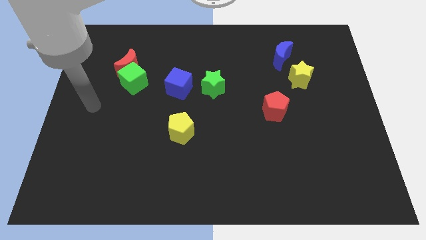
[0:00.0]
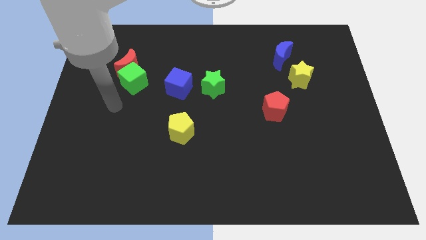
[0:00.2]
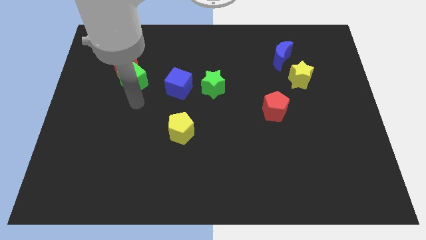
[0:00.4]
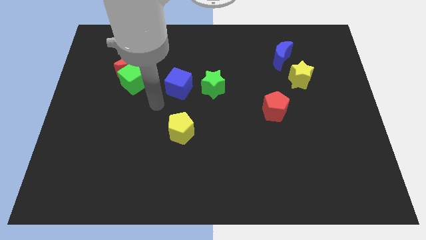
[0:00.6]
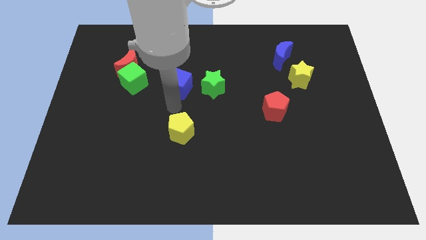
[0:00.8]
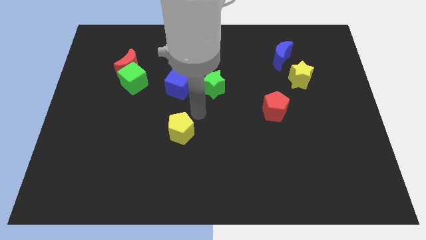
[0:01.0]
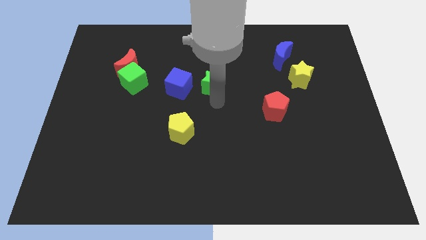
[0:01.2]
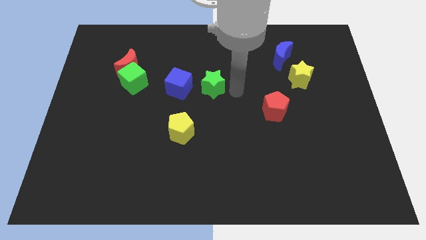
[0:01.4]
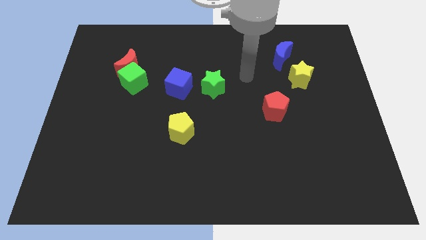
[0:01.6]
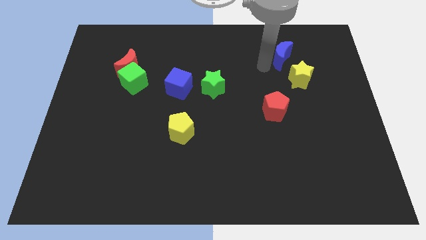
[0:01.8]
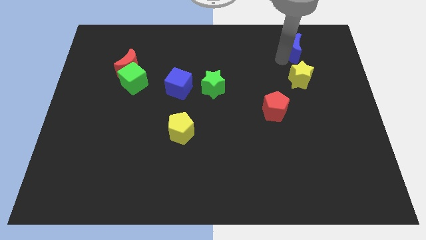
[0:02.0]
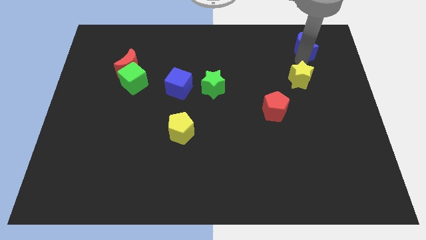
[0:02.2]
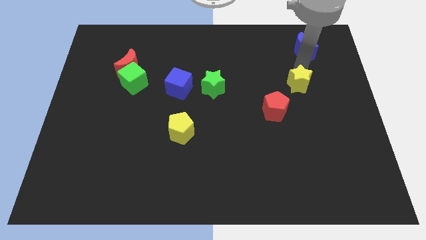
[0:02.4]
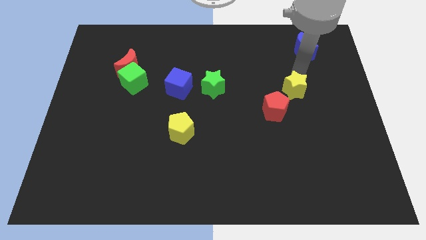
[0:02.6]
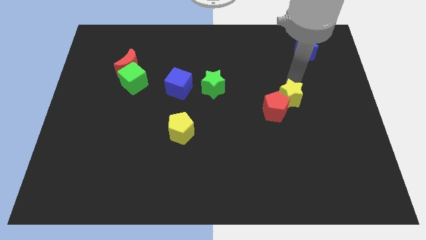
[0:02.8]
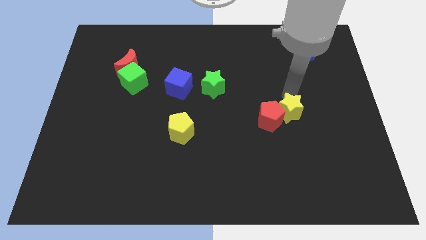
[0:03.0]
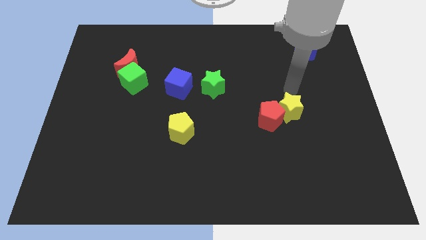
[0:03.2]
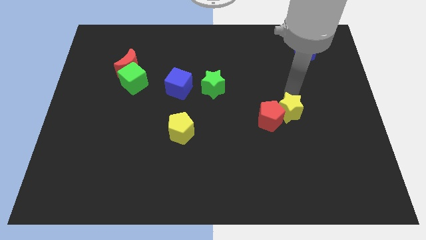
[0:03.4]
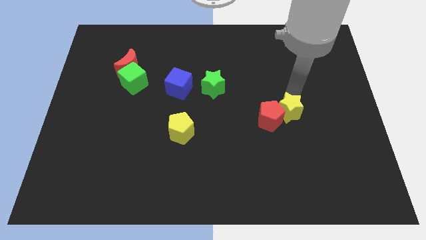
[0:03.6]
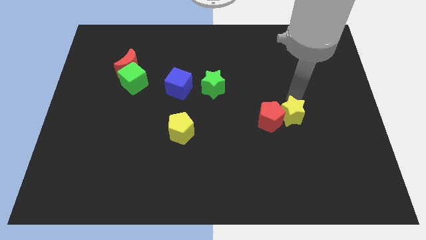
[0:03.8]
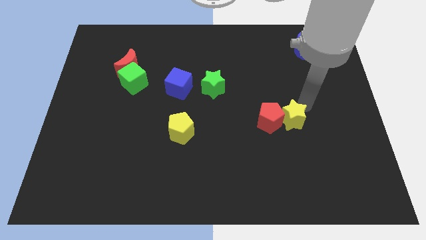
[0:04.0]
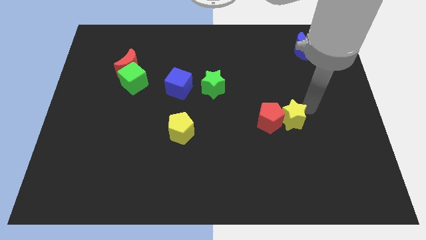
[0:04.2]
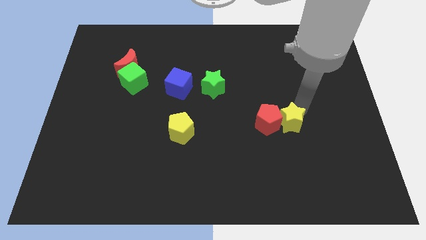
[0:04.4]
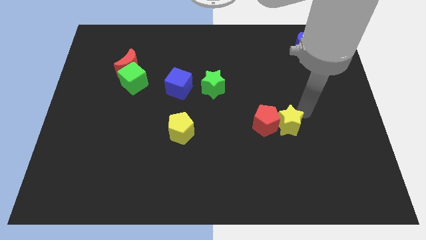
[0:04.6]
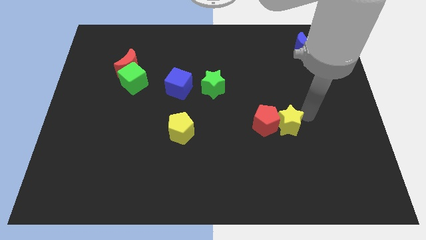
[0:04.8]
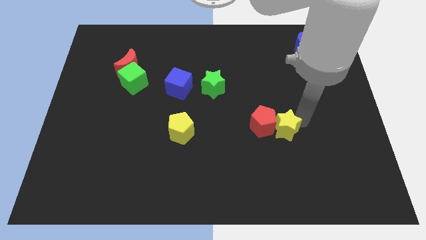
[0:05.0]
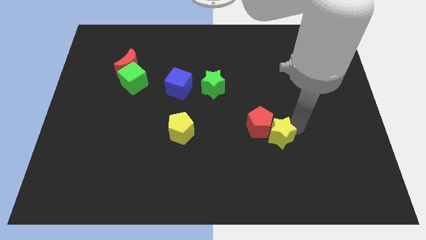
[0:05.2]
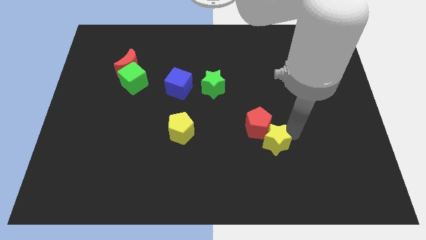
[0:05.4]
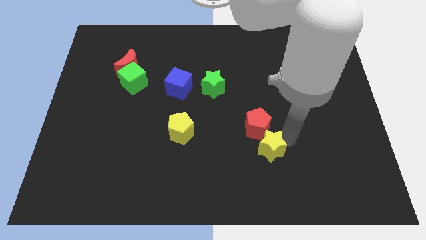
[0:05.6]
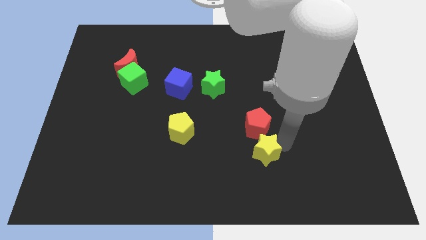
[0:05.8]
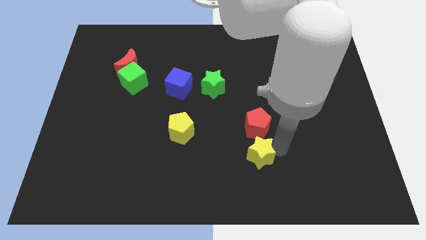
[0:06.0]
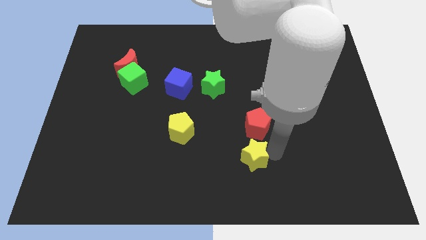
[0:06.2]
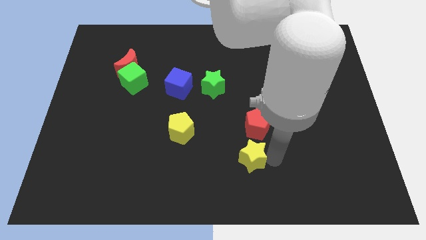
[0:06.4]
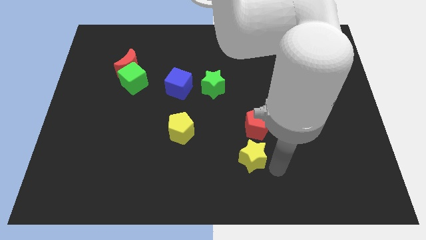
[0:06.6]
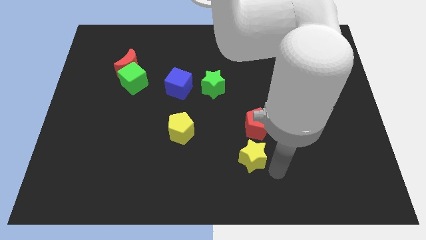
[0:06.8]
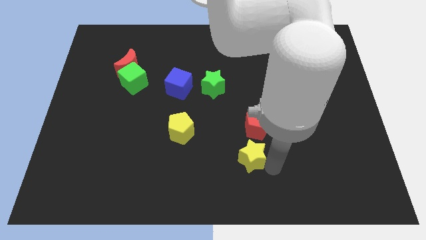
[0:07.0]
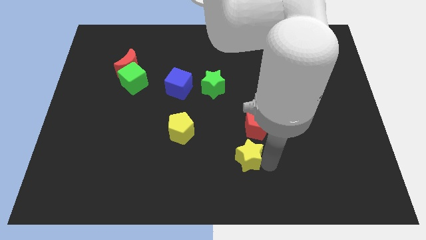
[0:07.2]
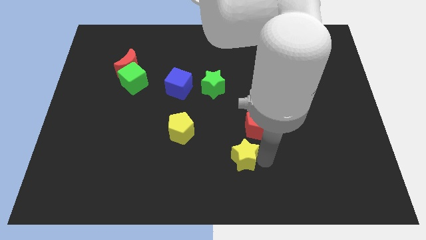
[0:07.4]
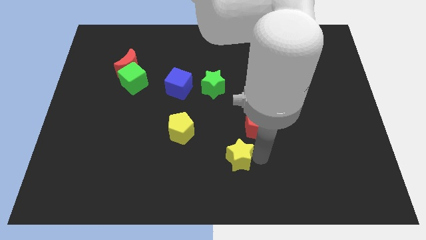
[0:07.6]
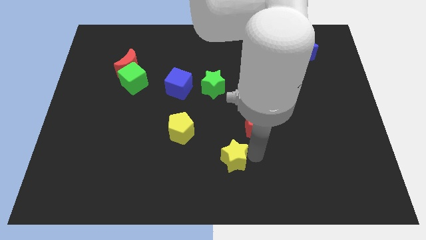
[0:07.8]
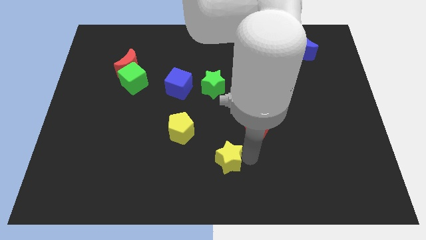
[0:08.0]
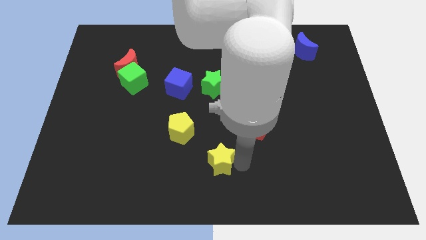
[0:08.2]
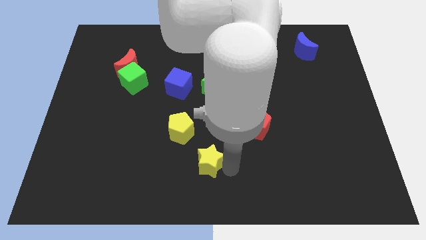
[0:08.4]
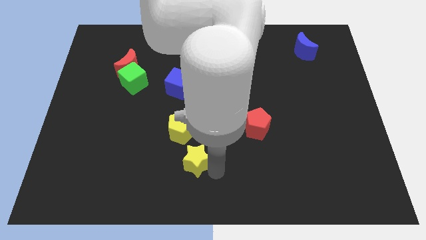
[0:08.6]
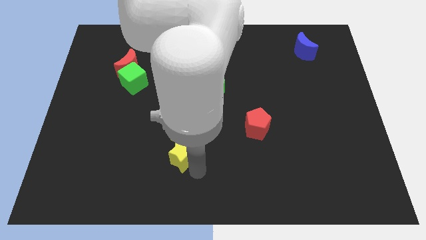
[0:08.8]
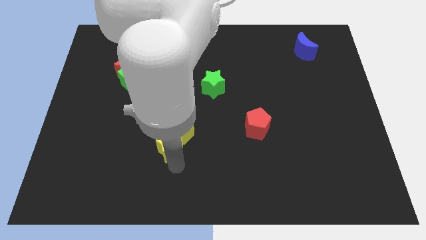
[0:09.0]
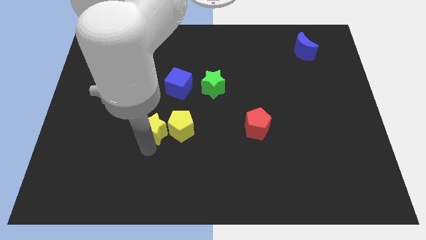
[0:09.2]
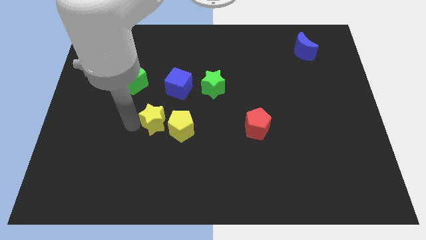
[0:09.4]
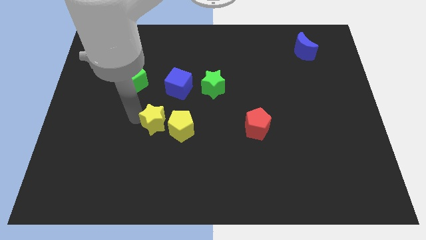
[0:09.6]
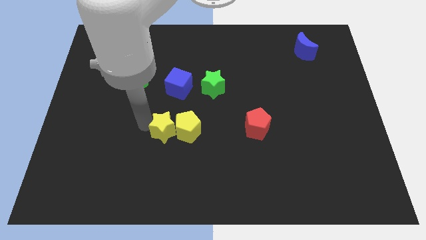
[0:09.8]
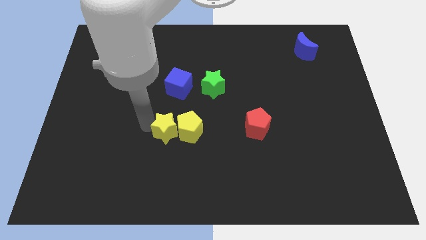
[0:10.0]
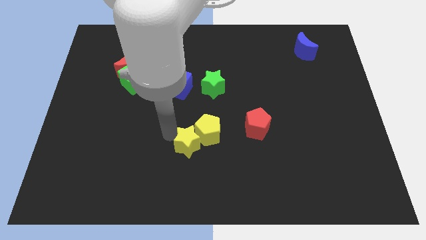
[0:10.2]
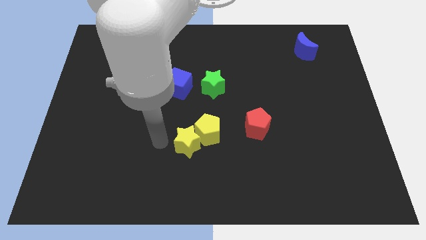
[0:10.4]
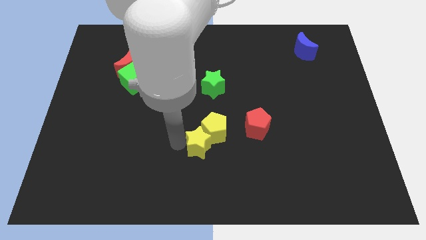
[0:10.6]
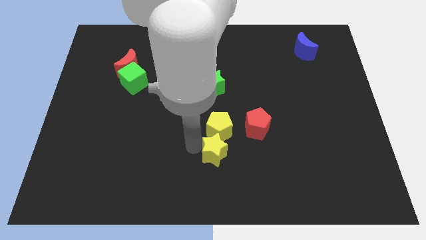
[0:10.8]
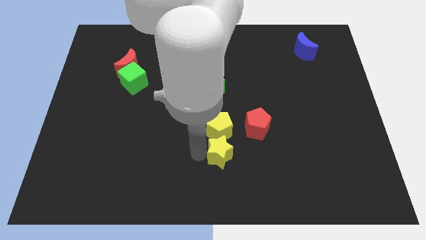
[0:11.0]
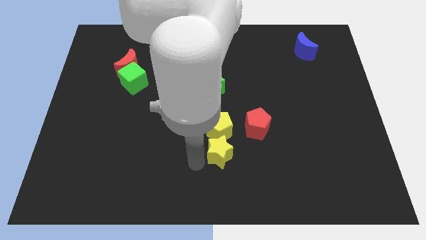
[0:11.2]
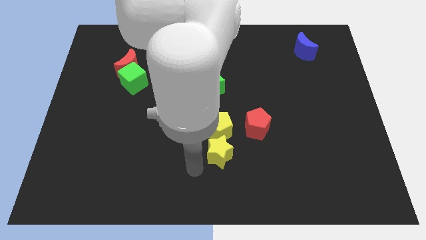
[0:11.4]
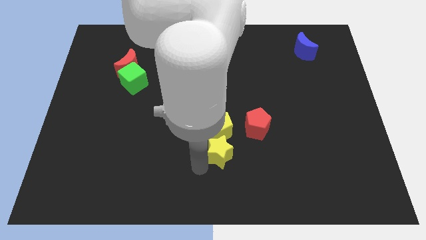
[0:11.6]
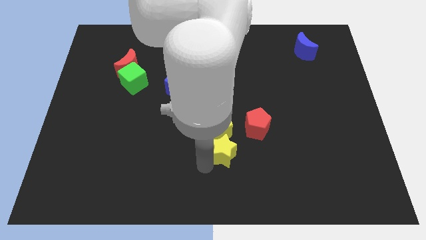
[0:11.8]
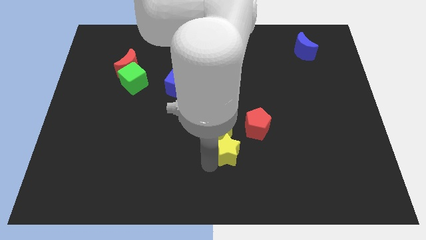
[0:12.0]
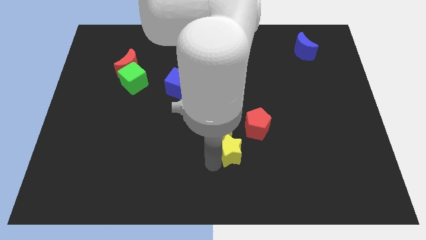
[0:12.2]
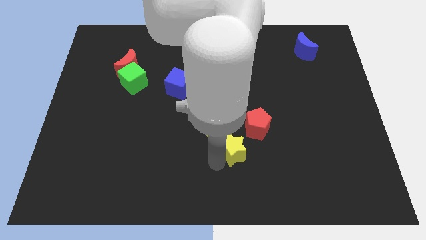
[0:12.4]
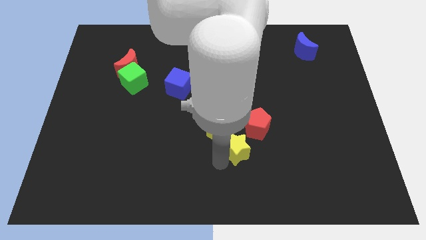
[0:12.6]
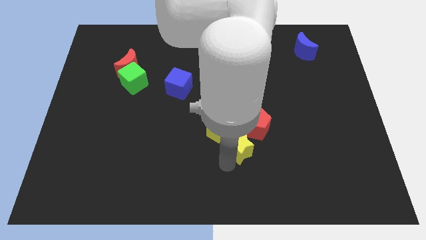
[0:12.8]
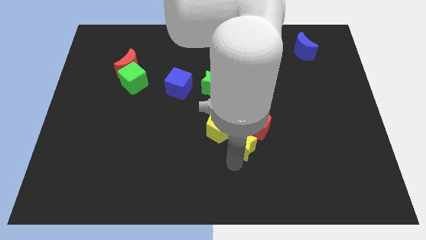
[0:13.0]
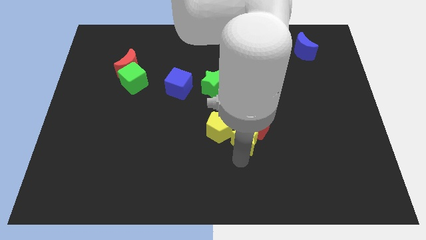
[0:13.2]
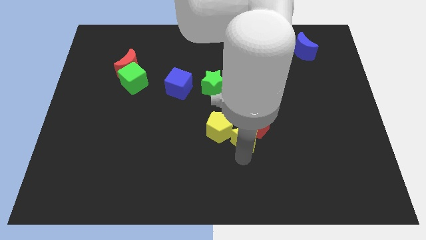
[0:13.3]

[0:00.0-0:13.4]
push the yellow star to the bottom left of the red pentagon
